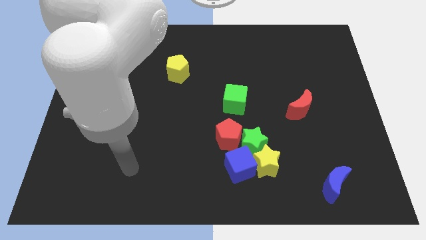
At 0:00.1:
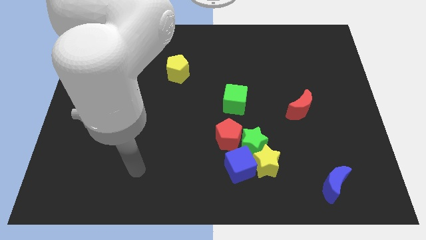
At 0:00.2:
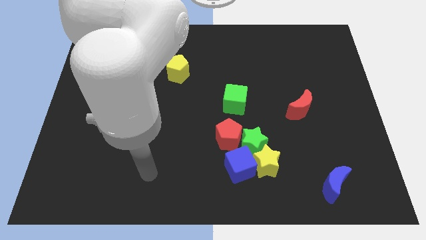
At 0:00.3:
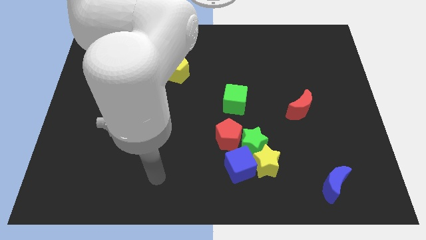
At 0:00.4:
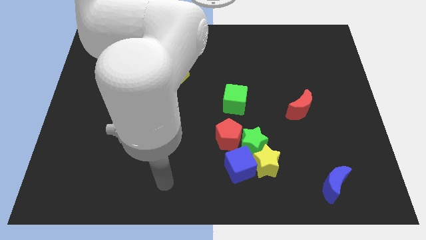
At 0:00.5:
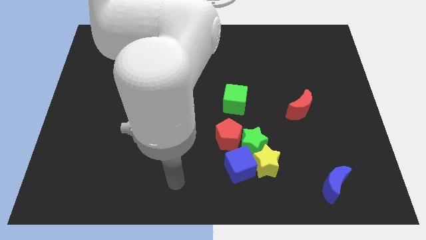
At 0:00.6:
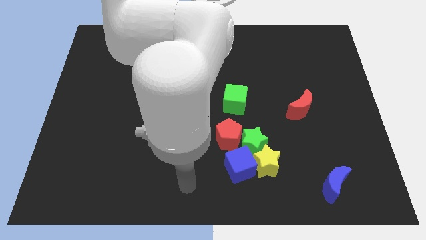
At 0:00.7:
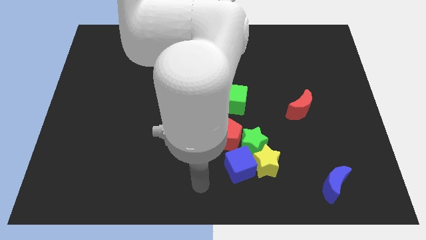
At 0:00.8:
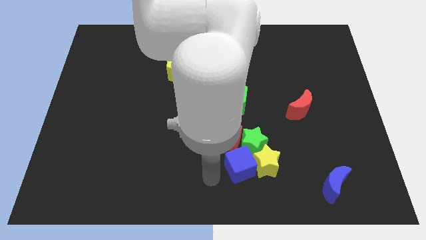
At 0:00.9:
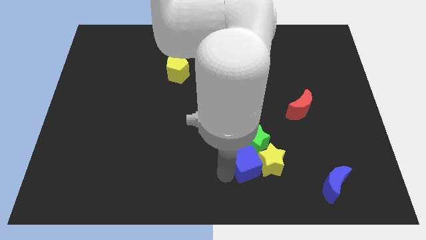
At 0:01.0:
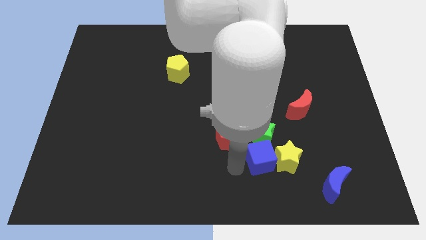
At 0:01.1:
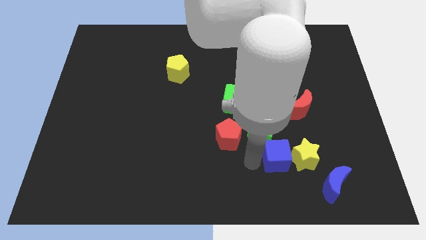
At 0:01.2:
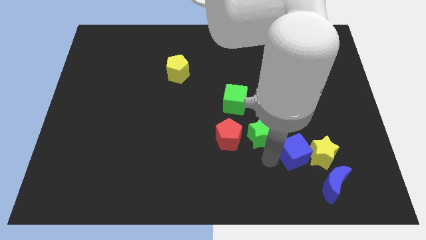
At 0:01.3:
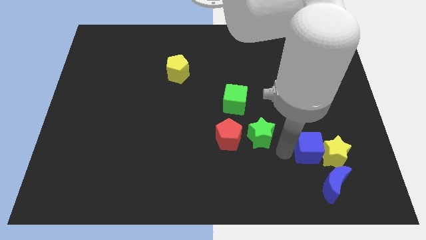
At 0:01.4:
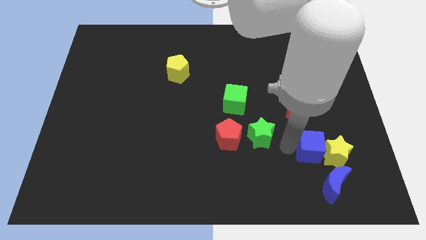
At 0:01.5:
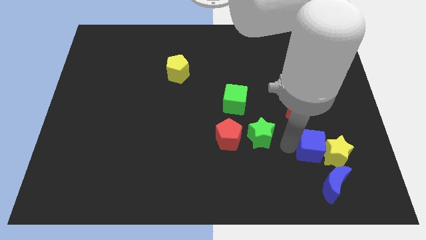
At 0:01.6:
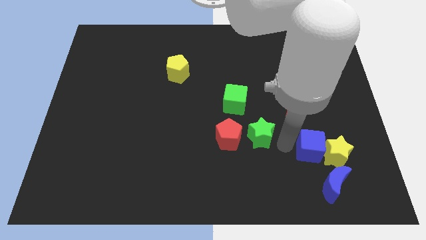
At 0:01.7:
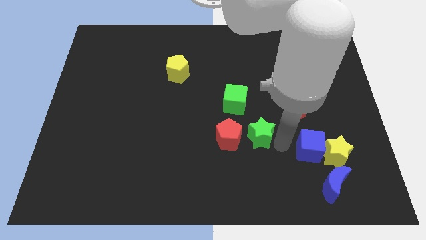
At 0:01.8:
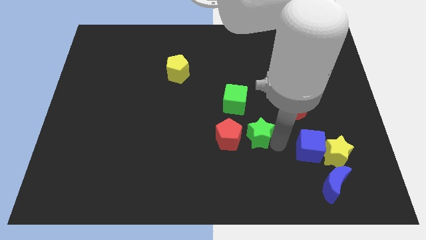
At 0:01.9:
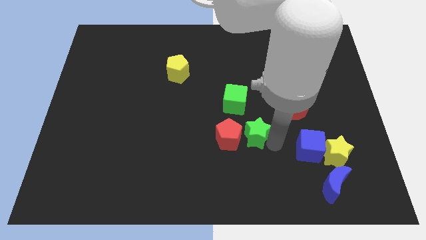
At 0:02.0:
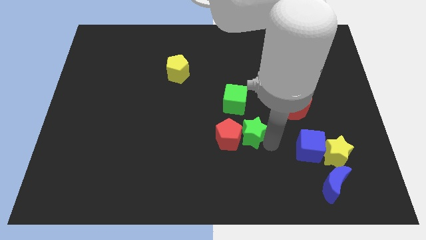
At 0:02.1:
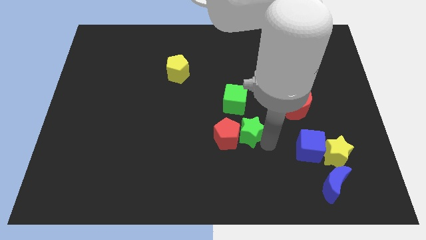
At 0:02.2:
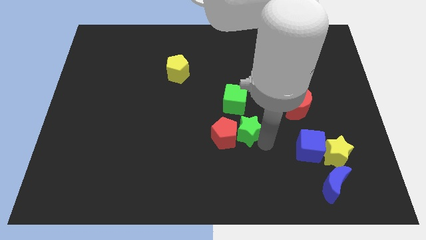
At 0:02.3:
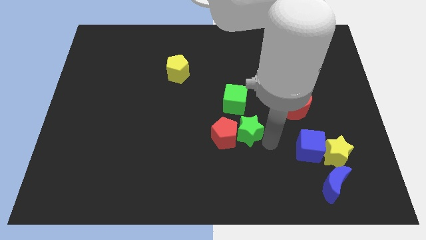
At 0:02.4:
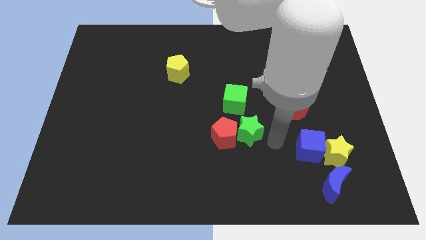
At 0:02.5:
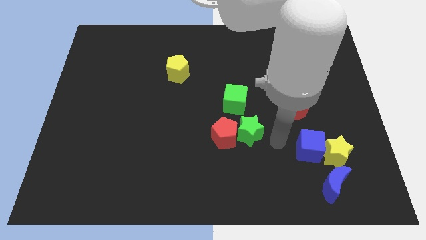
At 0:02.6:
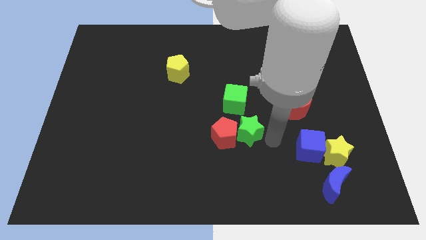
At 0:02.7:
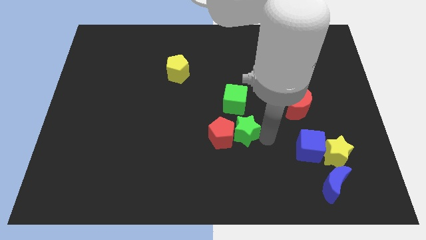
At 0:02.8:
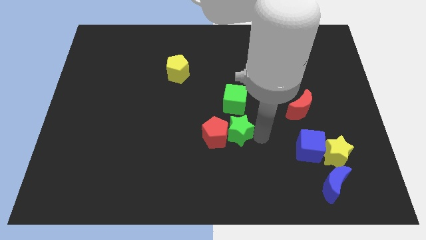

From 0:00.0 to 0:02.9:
move the green star away from the red pentagon, yellow star, and blue cube

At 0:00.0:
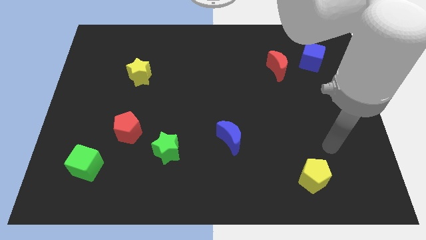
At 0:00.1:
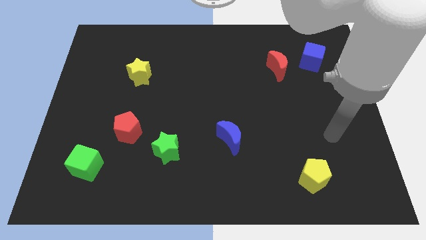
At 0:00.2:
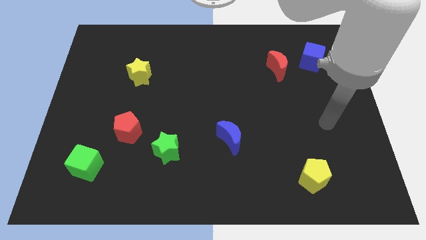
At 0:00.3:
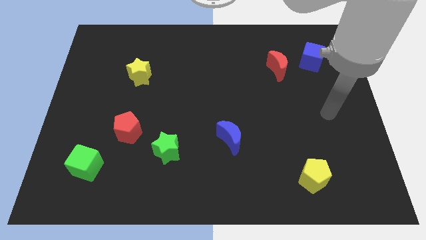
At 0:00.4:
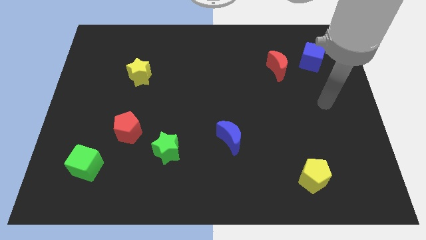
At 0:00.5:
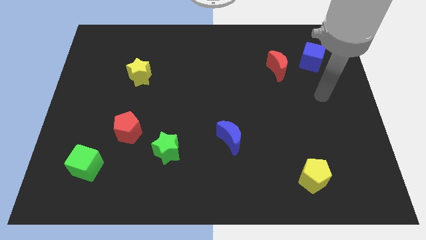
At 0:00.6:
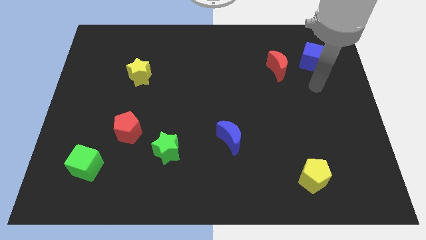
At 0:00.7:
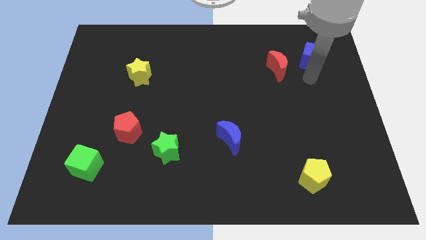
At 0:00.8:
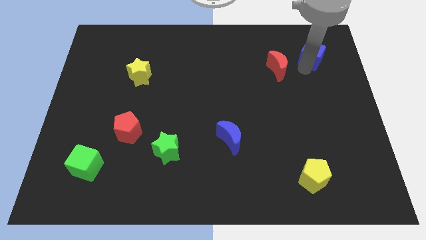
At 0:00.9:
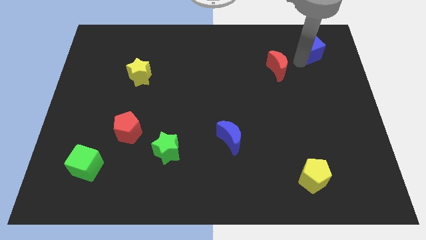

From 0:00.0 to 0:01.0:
separate the red moon from the blue cube

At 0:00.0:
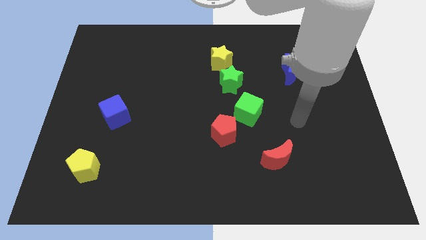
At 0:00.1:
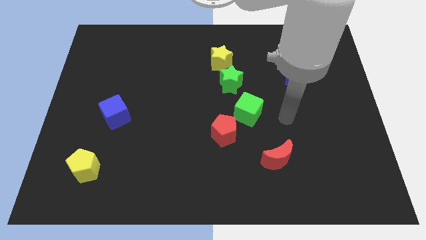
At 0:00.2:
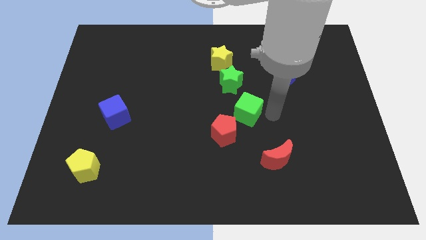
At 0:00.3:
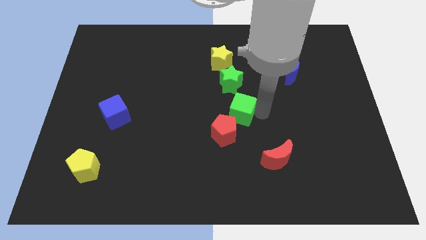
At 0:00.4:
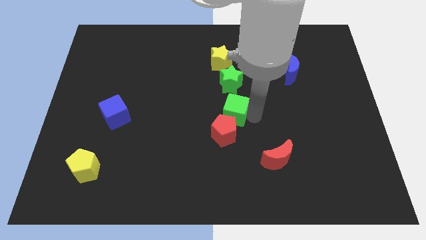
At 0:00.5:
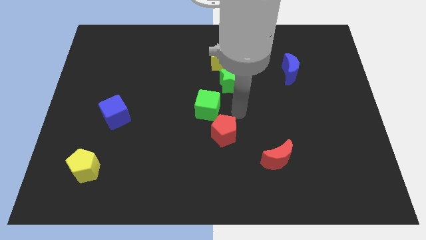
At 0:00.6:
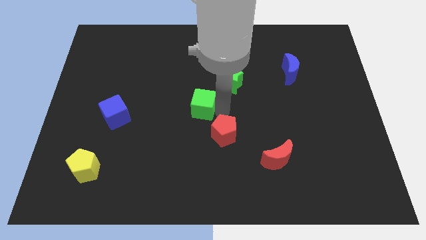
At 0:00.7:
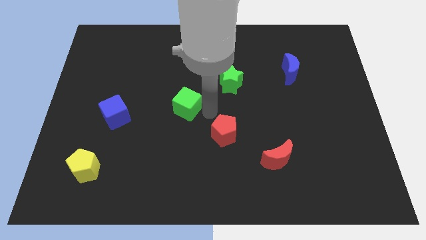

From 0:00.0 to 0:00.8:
pull the red pentagon apart from the green cube

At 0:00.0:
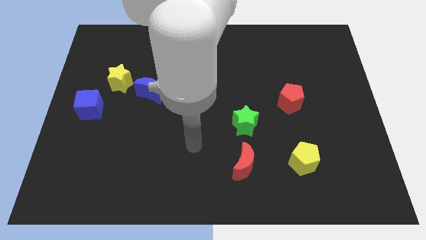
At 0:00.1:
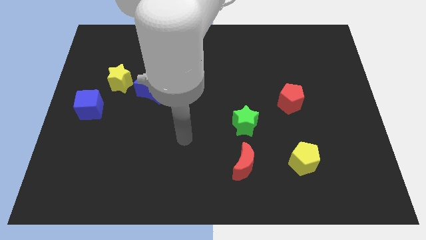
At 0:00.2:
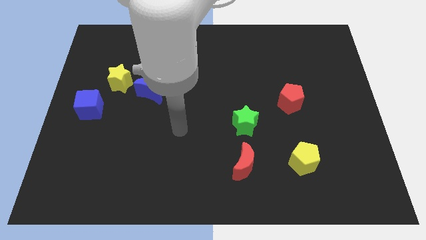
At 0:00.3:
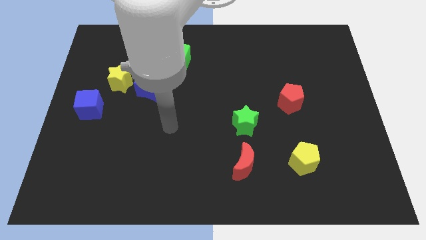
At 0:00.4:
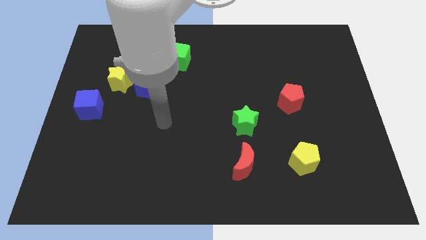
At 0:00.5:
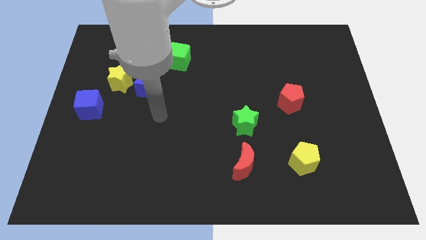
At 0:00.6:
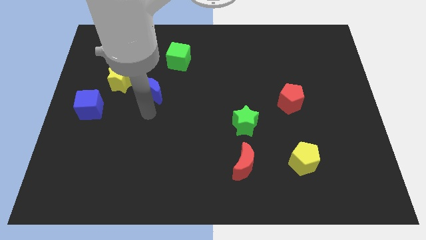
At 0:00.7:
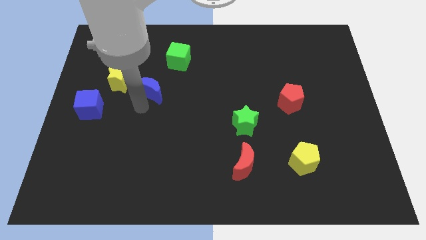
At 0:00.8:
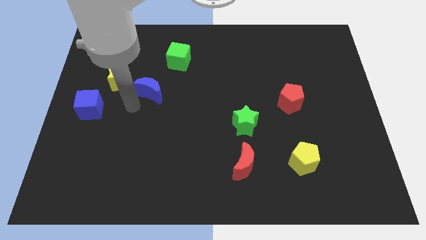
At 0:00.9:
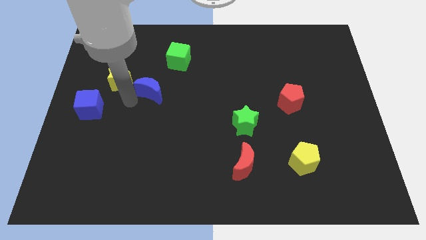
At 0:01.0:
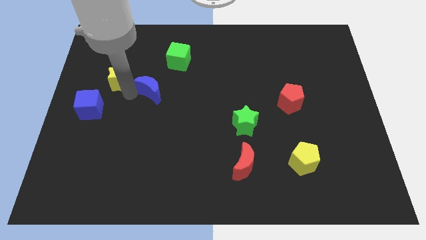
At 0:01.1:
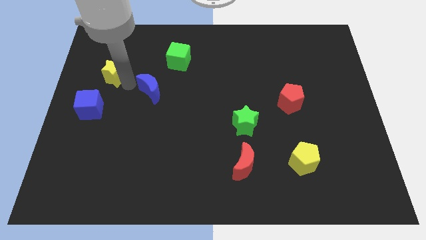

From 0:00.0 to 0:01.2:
move the blue moon away from the yellow star

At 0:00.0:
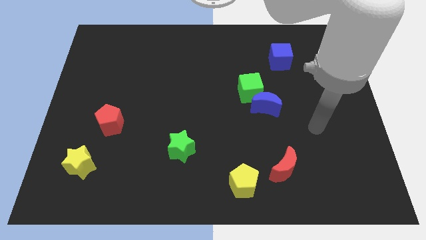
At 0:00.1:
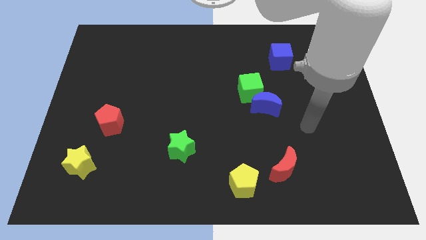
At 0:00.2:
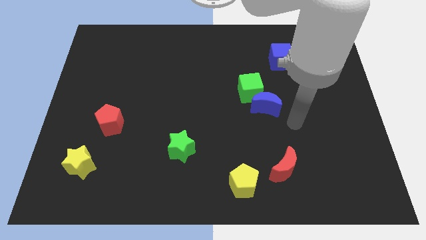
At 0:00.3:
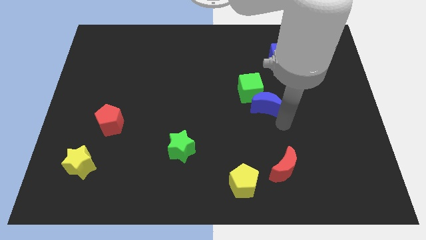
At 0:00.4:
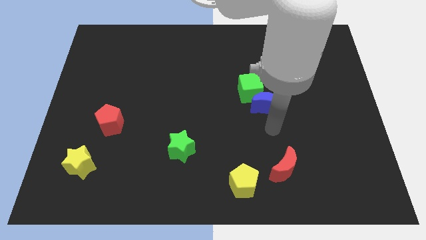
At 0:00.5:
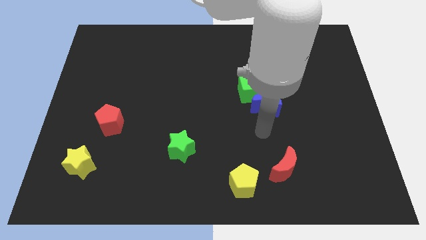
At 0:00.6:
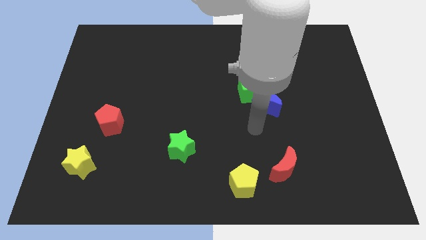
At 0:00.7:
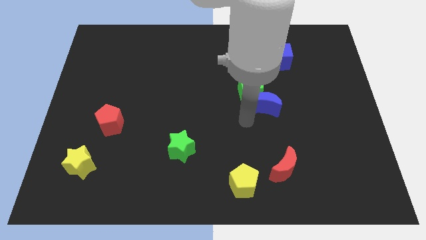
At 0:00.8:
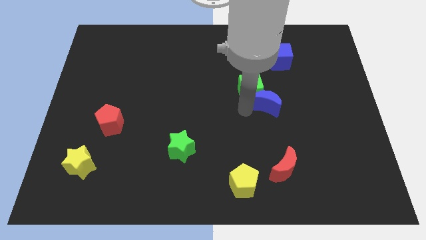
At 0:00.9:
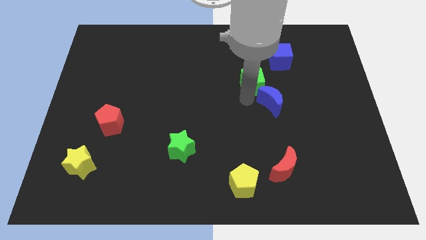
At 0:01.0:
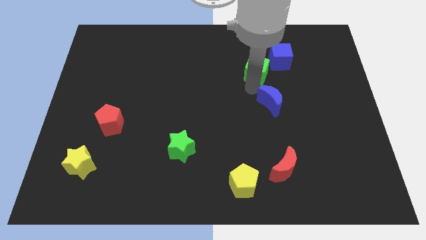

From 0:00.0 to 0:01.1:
move the blue moon away from the green cube

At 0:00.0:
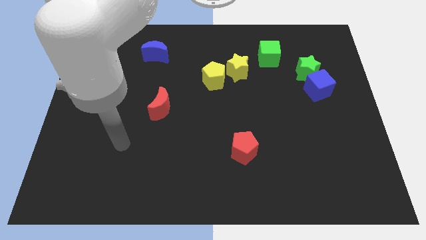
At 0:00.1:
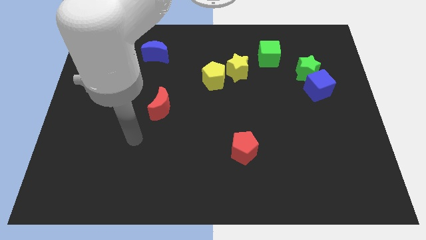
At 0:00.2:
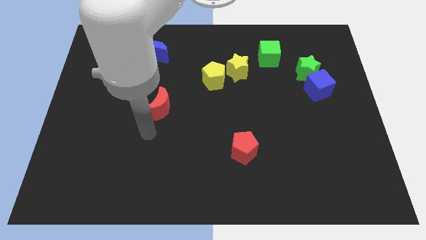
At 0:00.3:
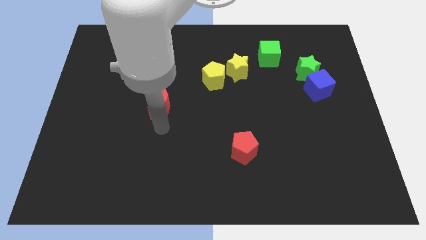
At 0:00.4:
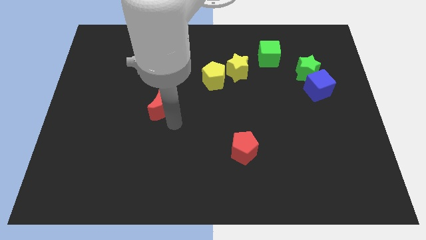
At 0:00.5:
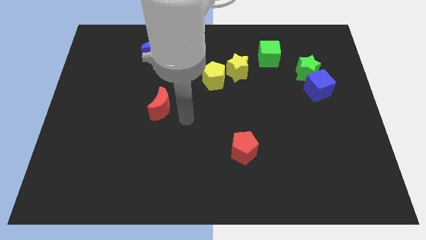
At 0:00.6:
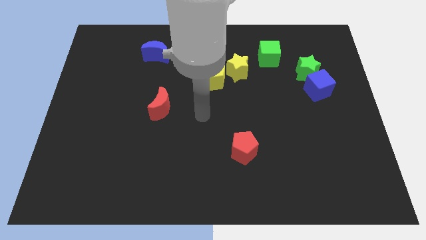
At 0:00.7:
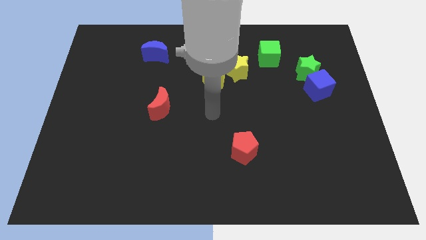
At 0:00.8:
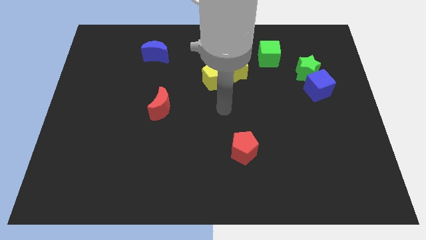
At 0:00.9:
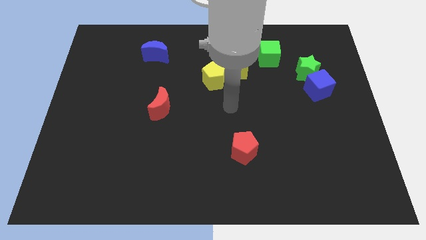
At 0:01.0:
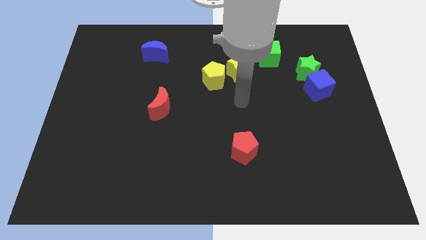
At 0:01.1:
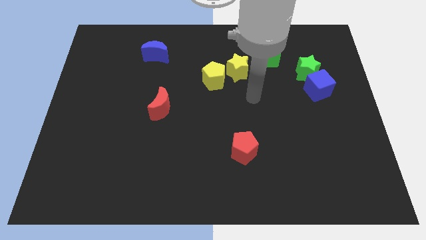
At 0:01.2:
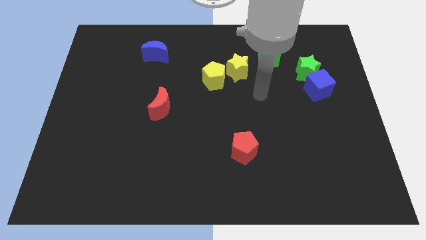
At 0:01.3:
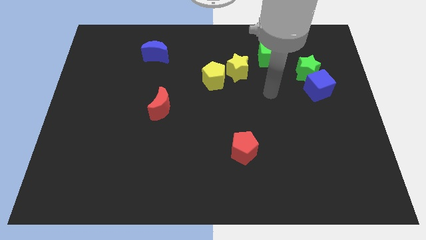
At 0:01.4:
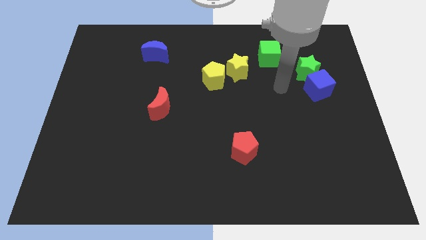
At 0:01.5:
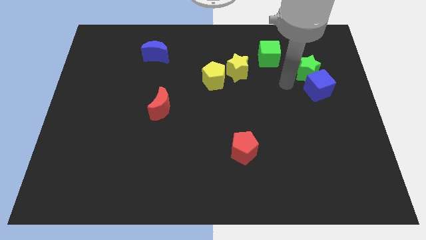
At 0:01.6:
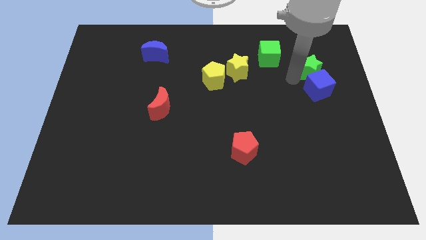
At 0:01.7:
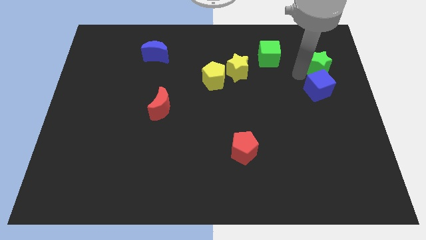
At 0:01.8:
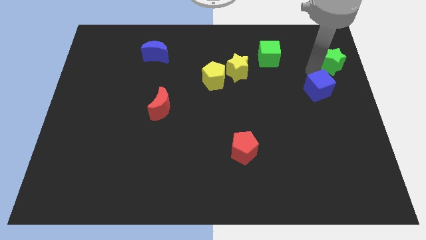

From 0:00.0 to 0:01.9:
pull the blue cube apart from the green star

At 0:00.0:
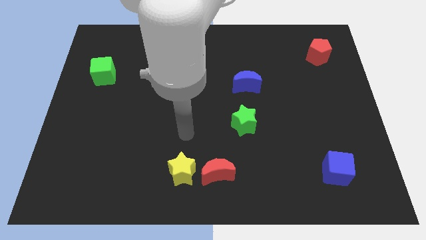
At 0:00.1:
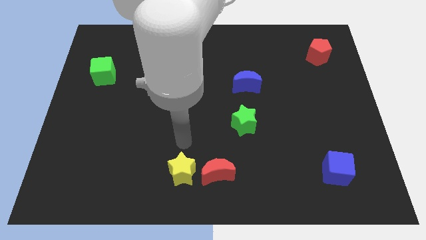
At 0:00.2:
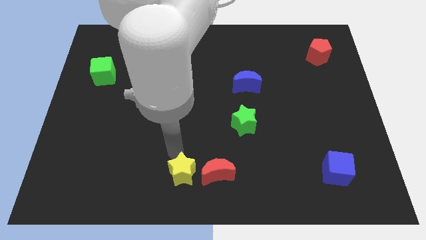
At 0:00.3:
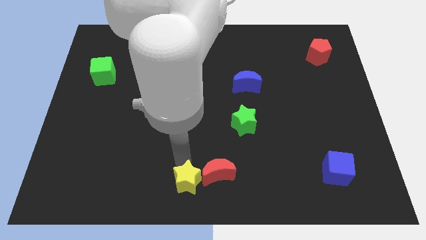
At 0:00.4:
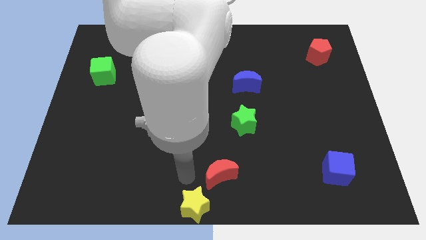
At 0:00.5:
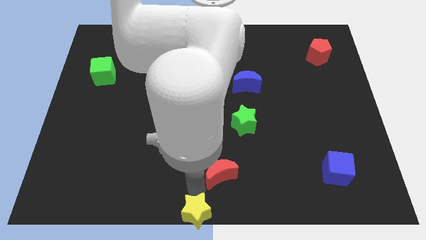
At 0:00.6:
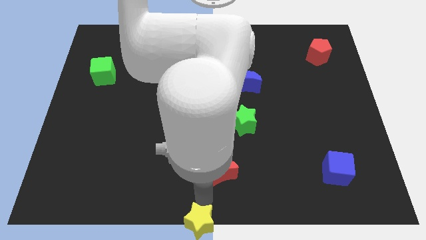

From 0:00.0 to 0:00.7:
move the red moon away from the yellow star
